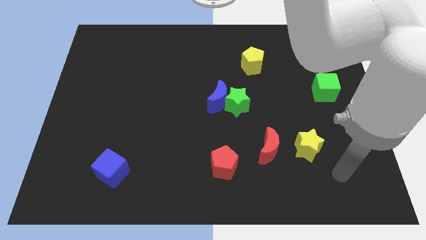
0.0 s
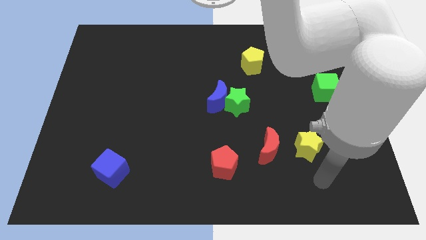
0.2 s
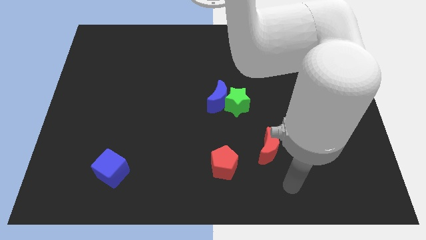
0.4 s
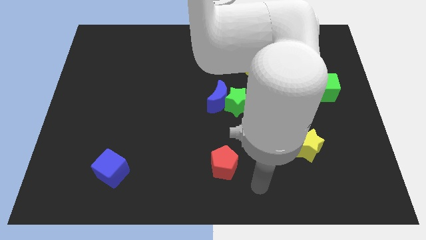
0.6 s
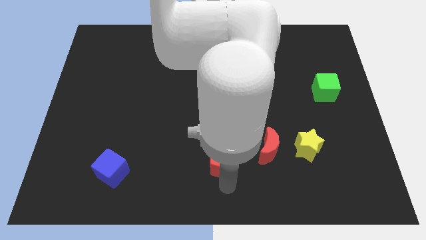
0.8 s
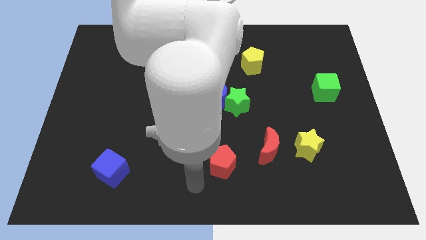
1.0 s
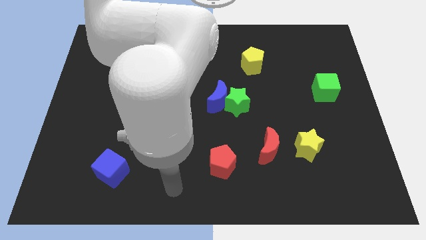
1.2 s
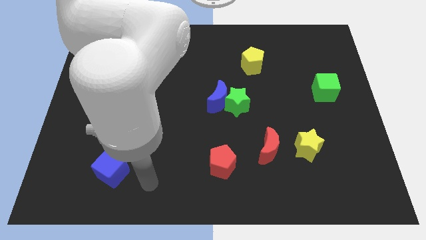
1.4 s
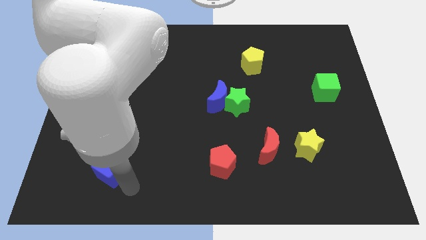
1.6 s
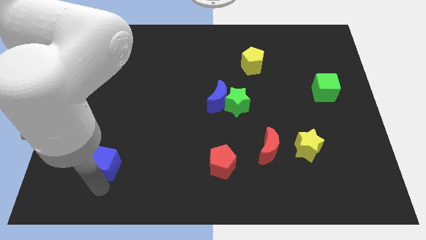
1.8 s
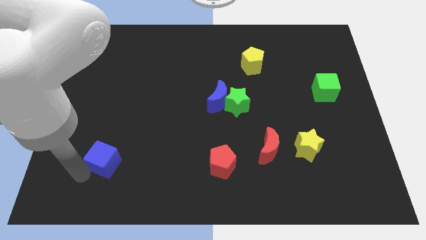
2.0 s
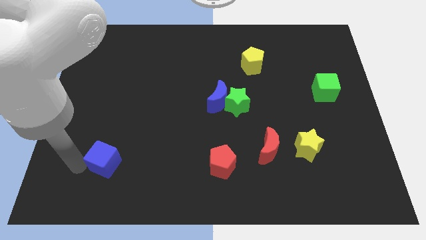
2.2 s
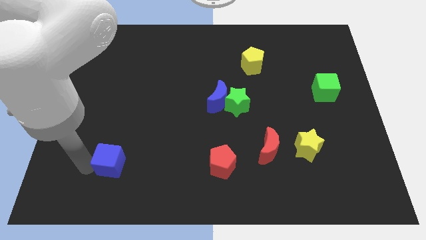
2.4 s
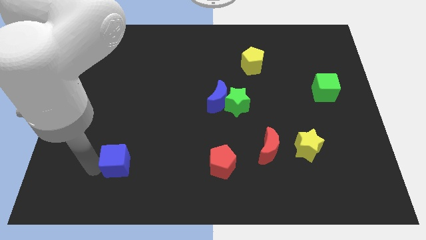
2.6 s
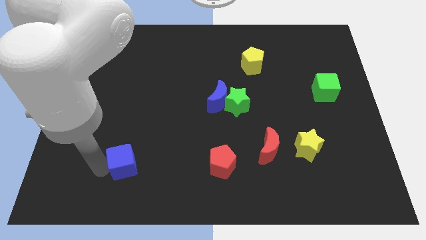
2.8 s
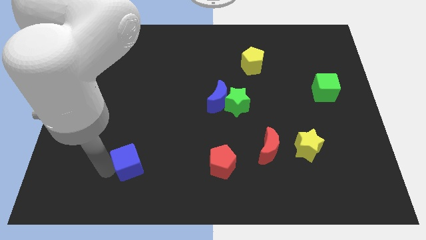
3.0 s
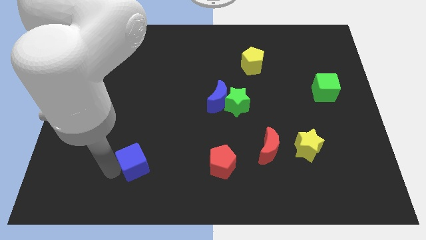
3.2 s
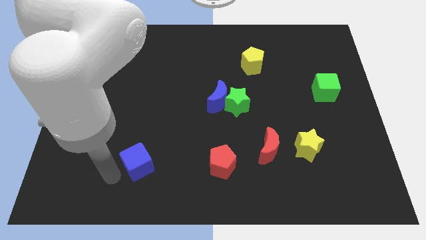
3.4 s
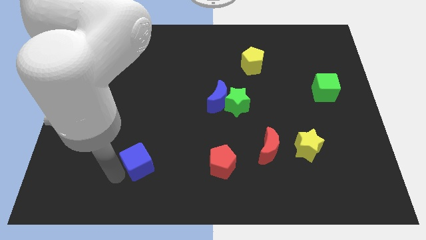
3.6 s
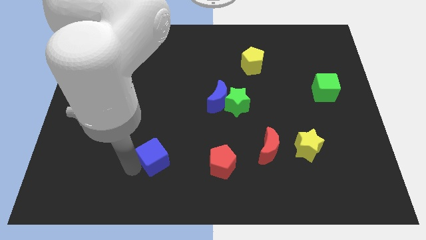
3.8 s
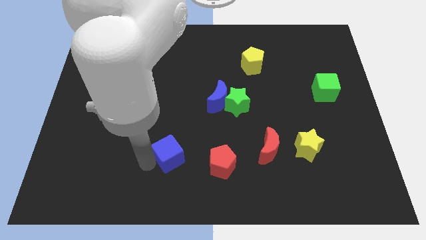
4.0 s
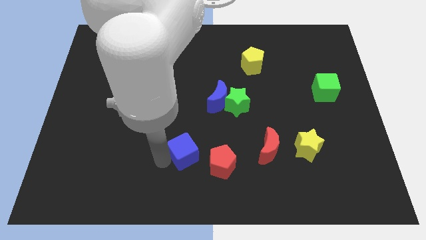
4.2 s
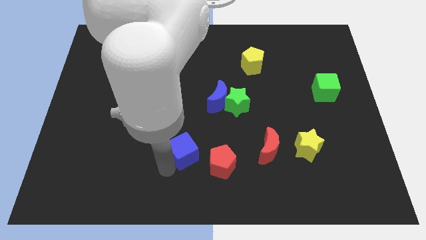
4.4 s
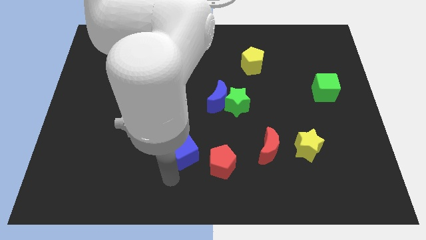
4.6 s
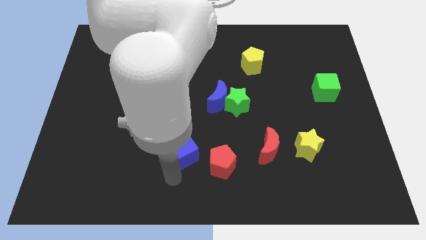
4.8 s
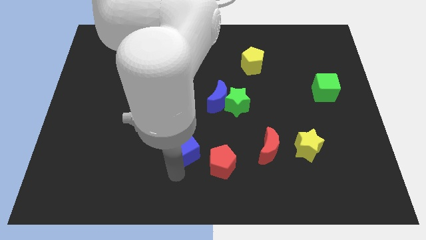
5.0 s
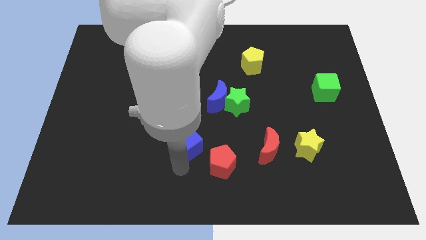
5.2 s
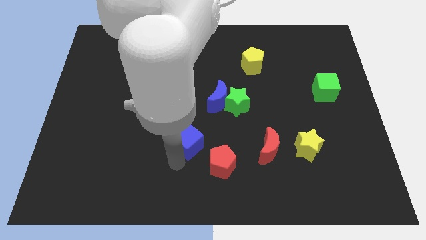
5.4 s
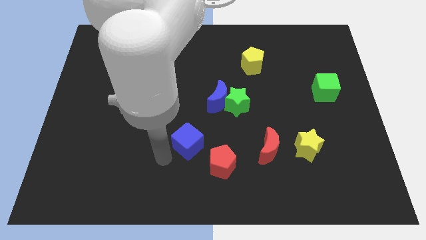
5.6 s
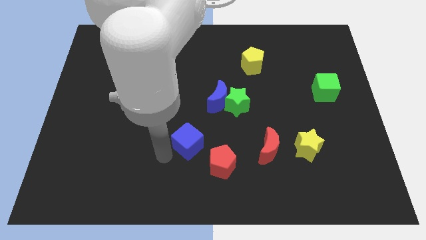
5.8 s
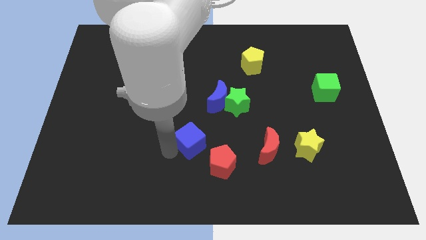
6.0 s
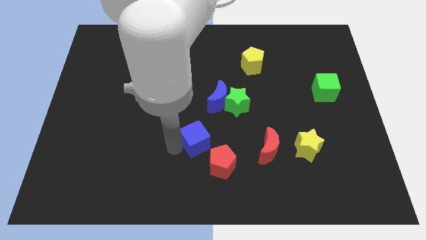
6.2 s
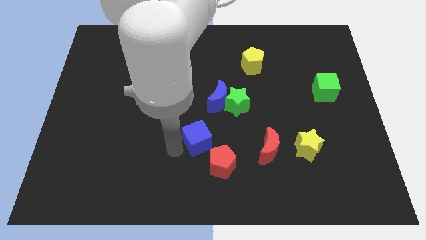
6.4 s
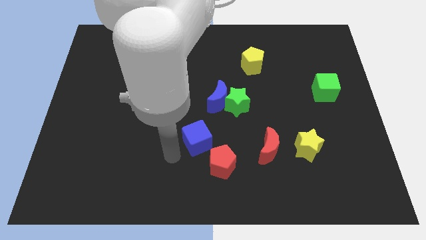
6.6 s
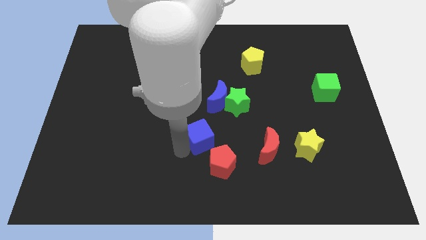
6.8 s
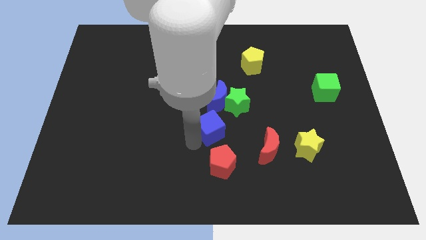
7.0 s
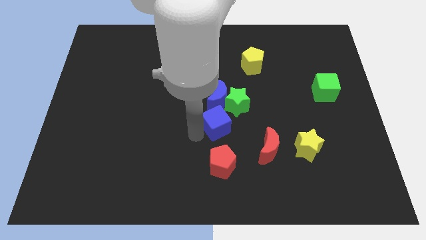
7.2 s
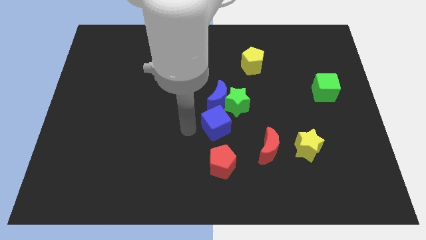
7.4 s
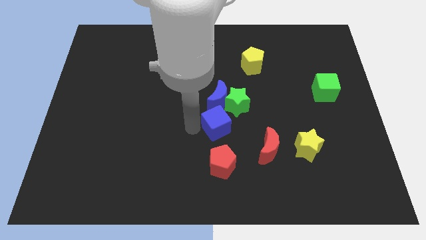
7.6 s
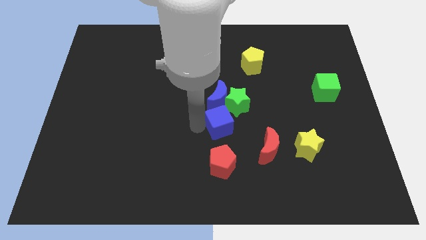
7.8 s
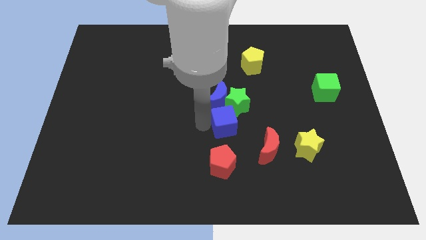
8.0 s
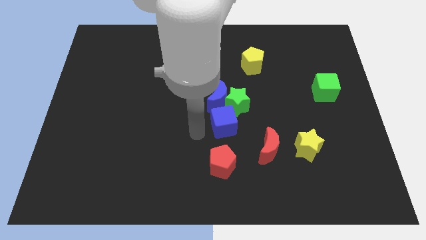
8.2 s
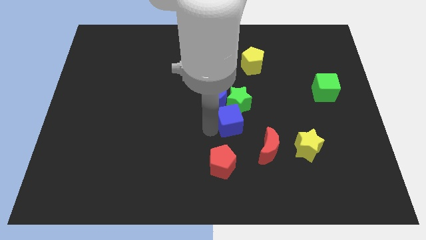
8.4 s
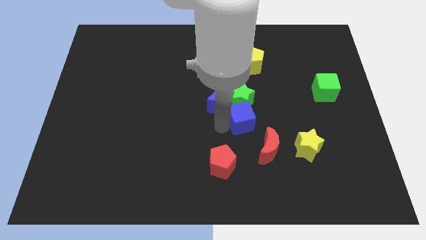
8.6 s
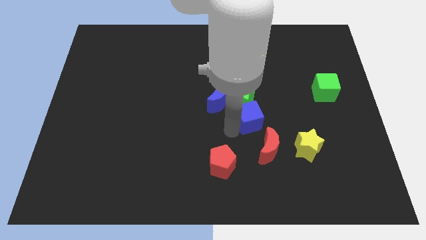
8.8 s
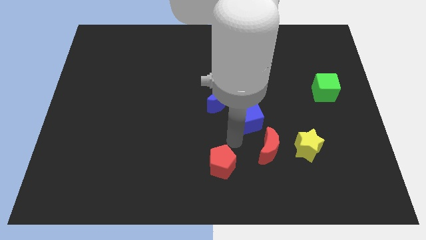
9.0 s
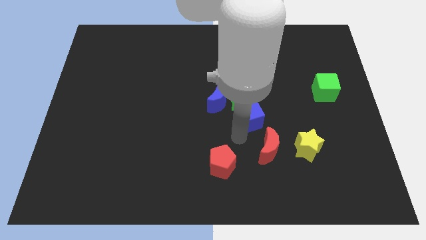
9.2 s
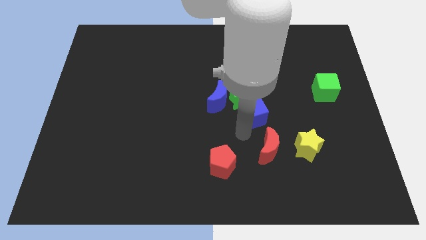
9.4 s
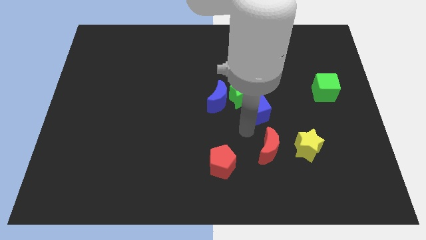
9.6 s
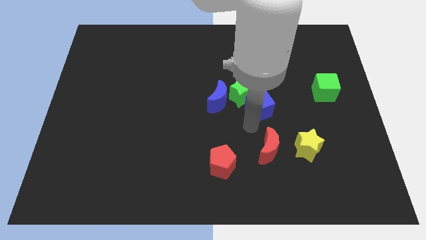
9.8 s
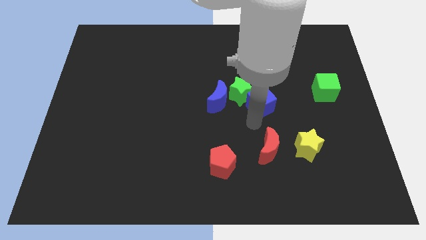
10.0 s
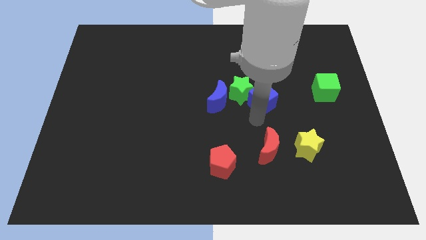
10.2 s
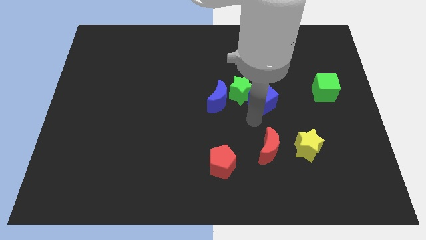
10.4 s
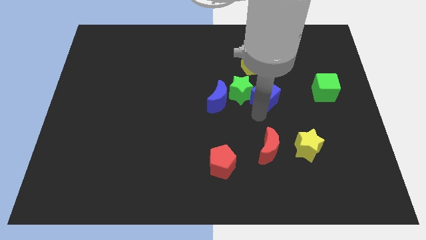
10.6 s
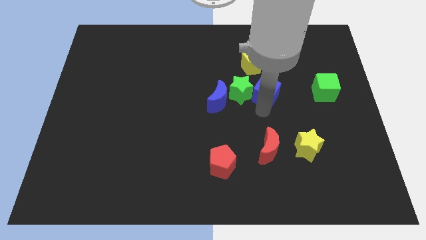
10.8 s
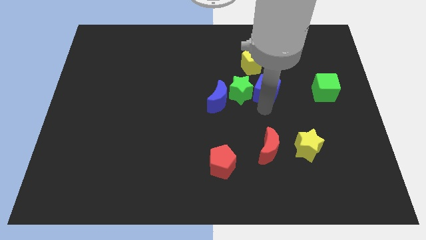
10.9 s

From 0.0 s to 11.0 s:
push the blue cube diagonally down and to the right of the yellow pentagon

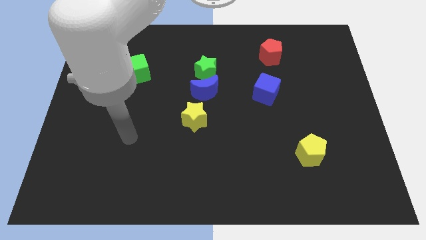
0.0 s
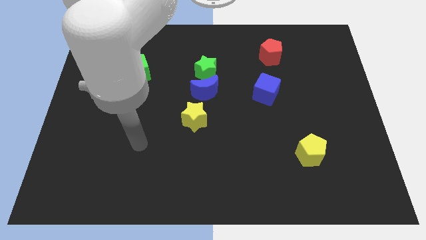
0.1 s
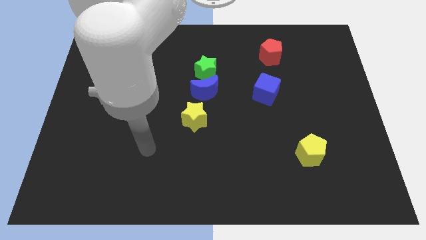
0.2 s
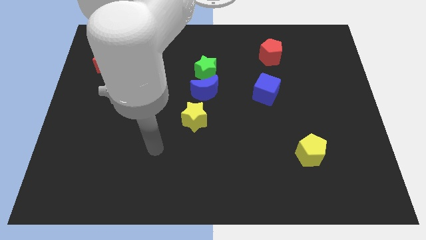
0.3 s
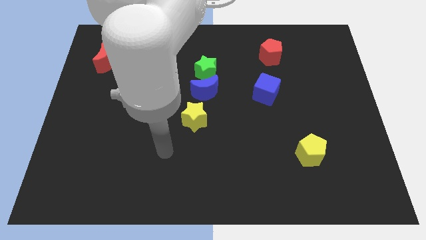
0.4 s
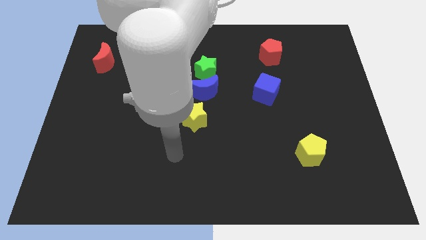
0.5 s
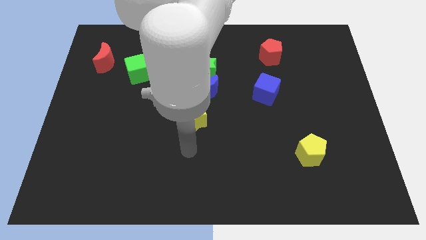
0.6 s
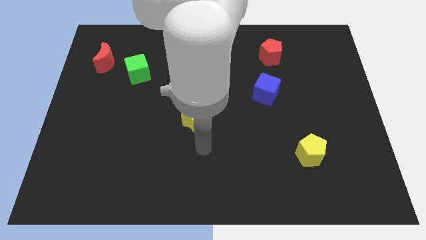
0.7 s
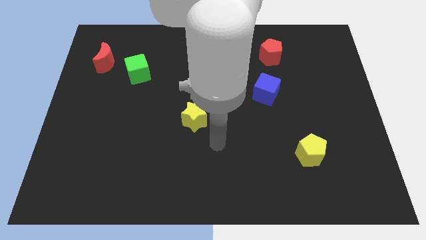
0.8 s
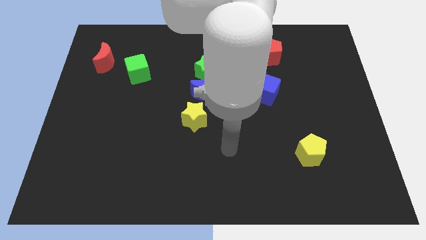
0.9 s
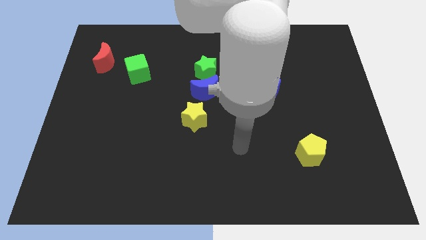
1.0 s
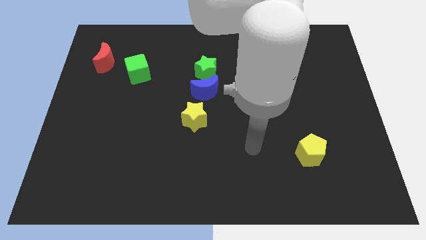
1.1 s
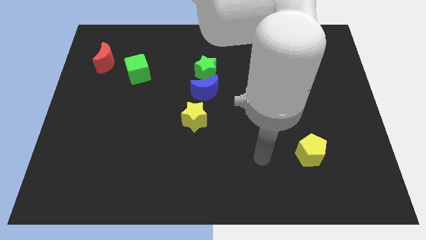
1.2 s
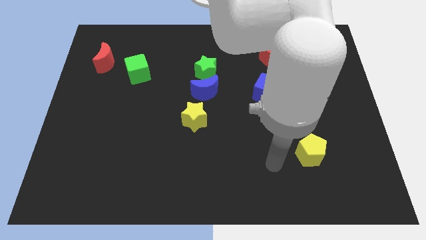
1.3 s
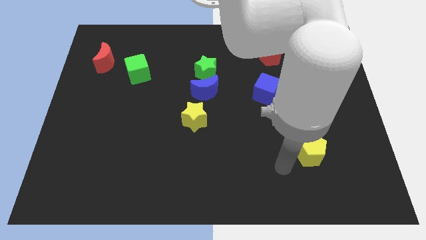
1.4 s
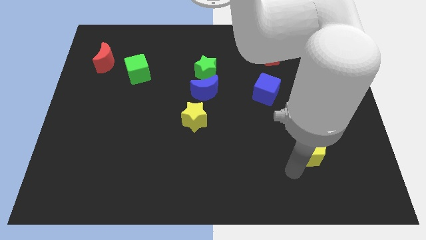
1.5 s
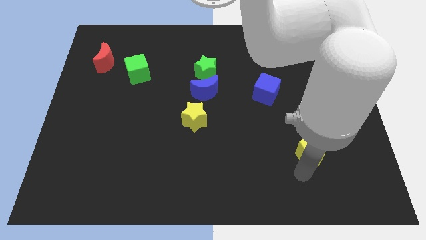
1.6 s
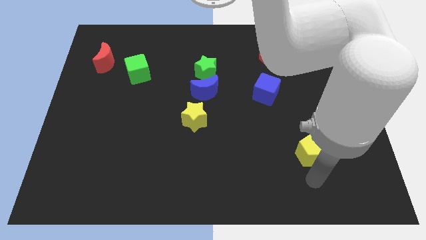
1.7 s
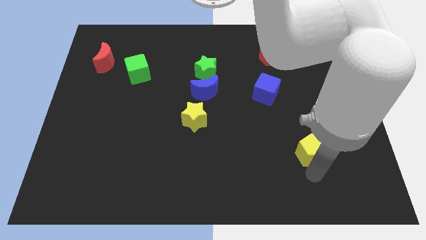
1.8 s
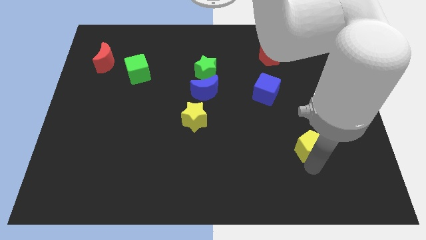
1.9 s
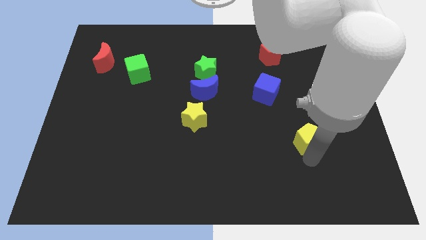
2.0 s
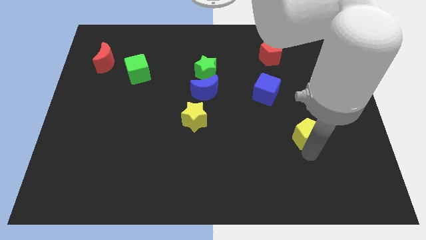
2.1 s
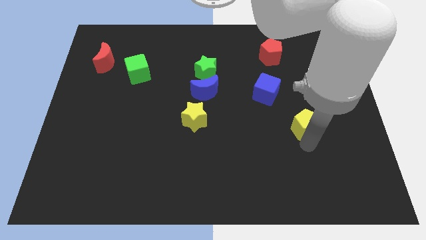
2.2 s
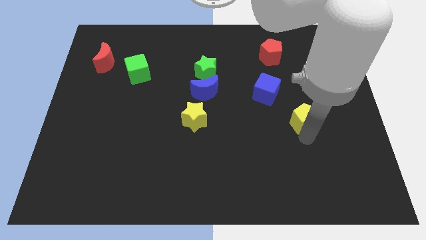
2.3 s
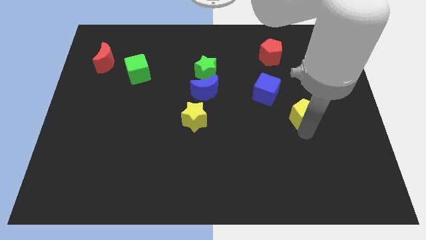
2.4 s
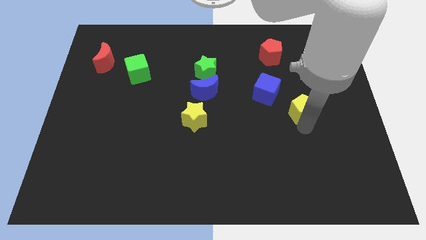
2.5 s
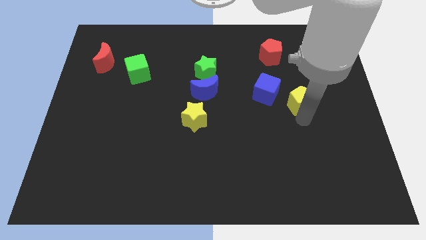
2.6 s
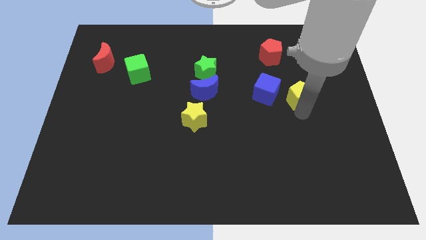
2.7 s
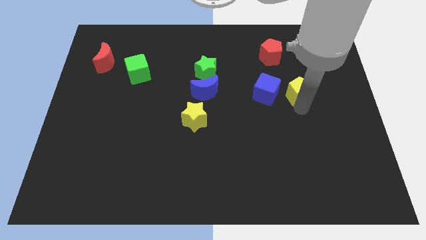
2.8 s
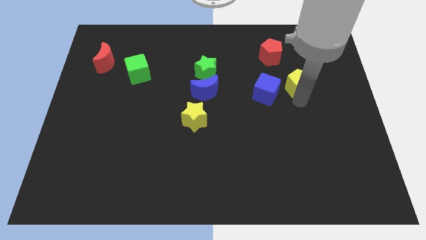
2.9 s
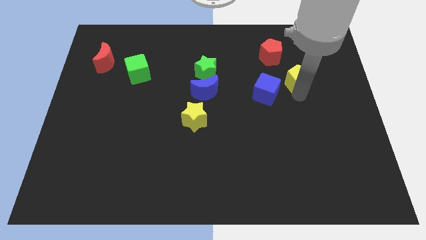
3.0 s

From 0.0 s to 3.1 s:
move the yellow pentagon diagonally down and to the right of the red pentagon
